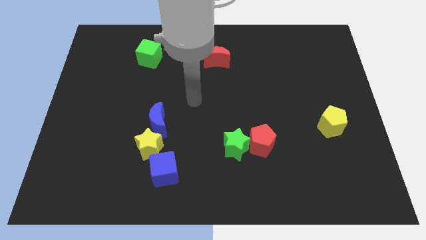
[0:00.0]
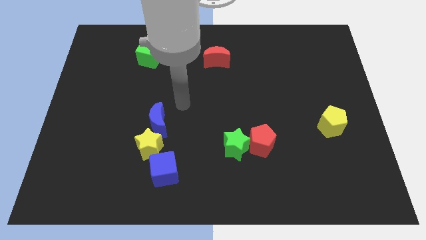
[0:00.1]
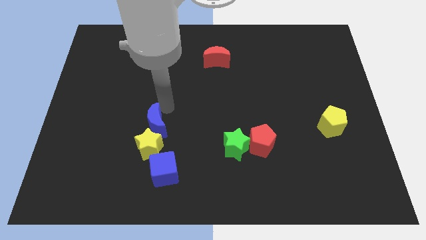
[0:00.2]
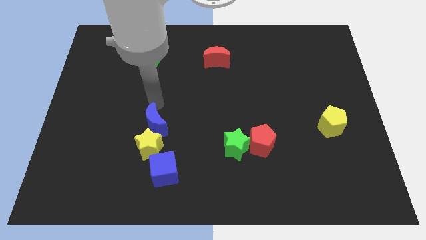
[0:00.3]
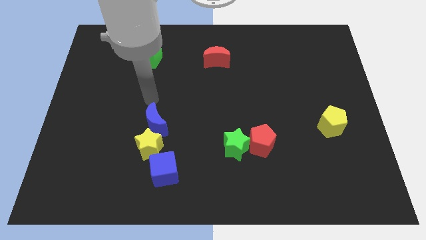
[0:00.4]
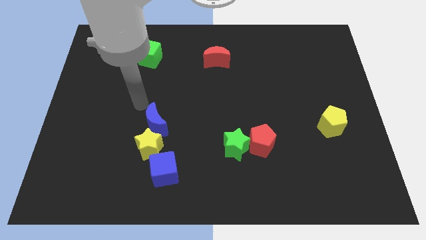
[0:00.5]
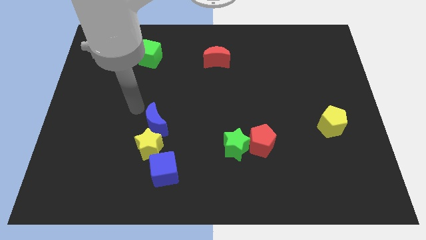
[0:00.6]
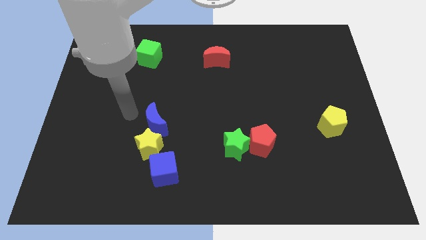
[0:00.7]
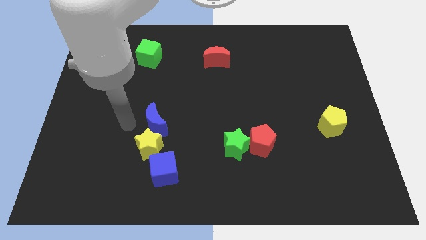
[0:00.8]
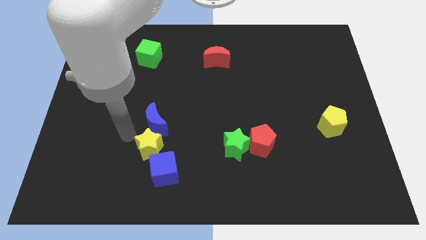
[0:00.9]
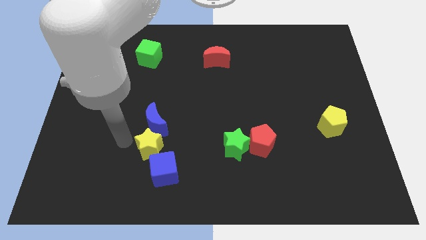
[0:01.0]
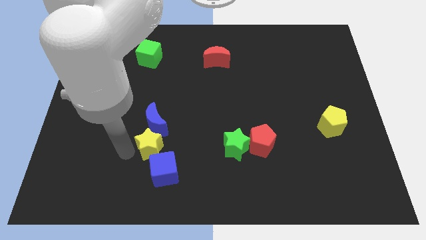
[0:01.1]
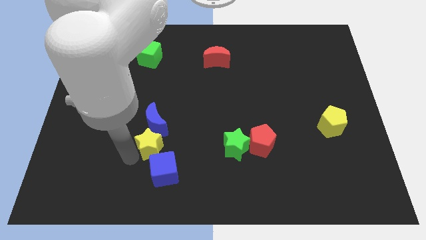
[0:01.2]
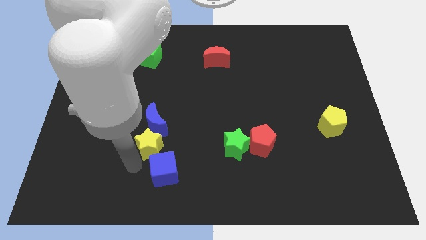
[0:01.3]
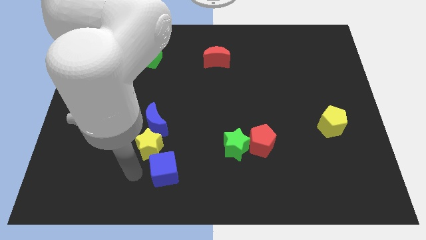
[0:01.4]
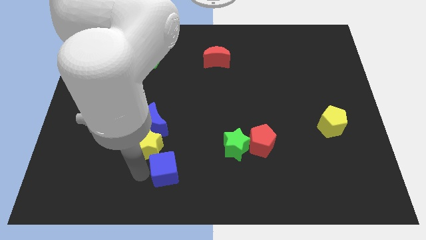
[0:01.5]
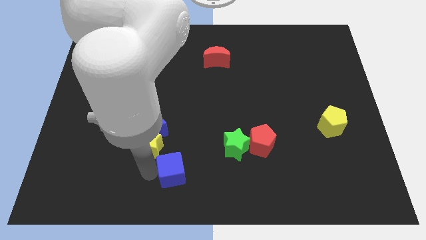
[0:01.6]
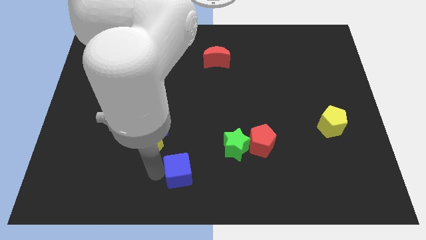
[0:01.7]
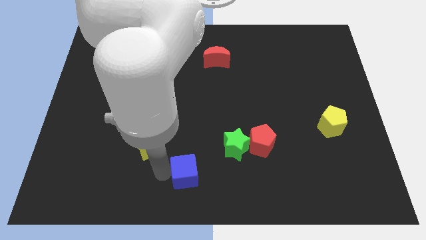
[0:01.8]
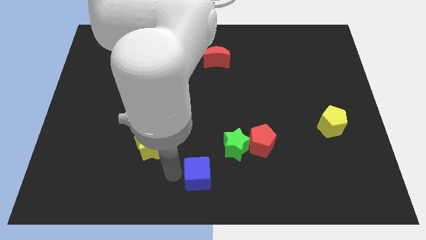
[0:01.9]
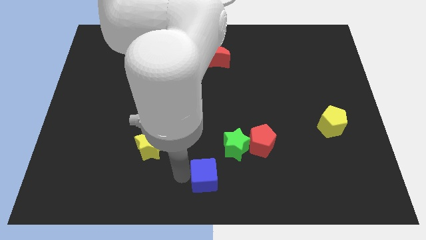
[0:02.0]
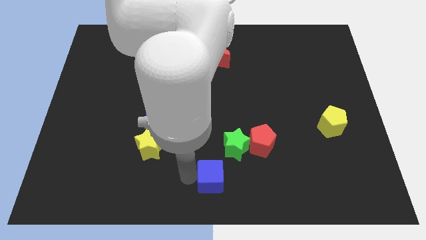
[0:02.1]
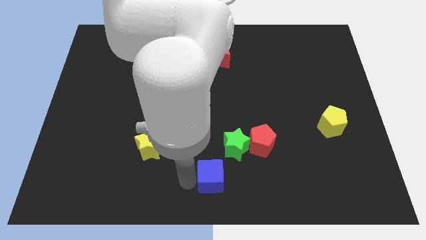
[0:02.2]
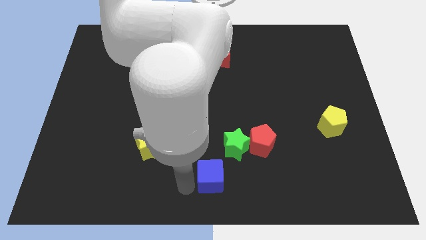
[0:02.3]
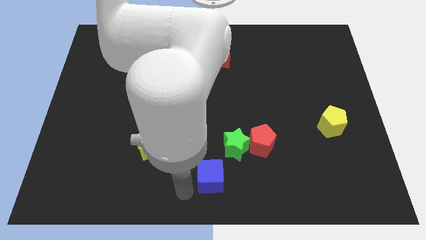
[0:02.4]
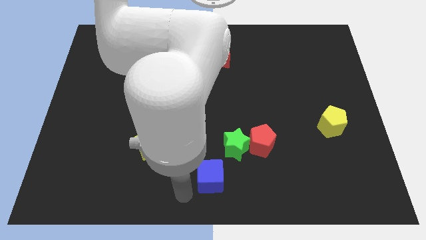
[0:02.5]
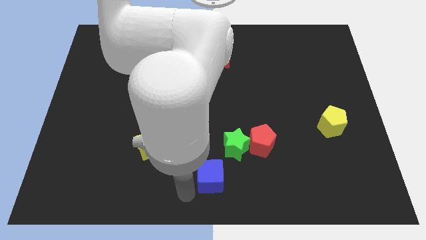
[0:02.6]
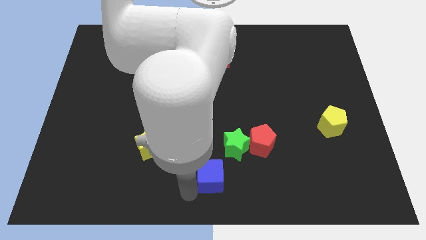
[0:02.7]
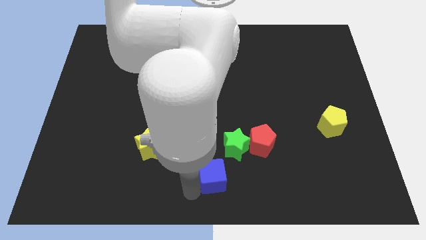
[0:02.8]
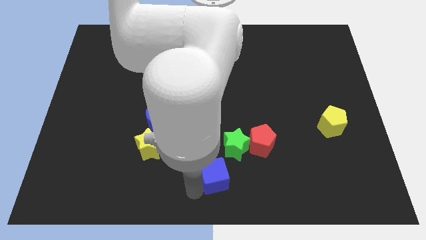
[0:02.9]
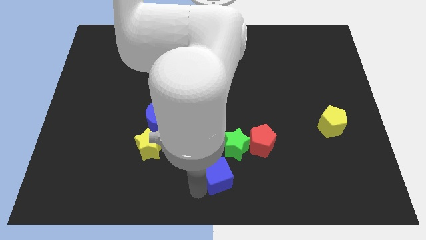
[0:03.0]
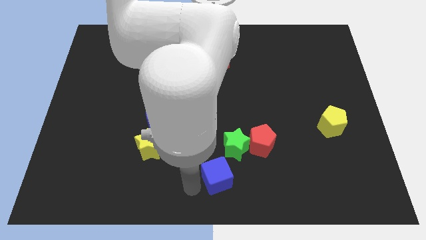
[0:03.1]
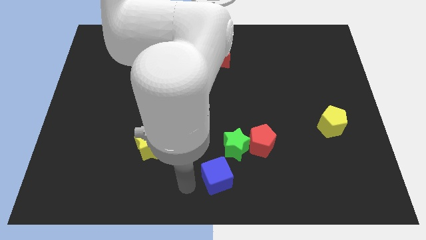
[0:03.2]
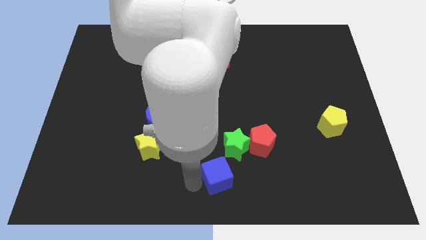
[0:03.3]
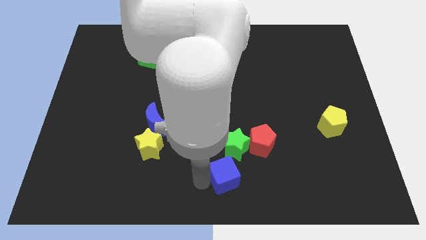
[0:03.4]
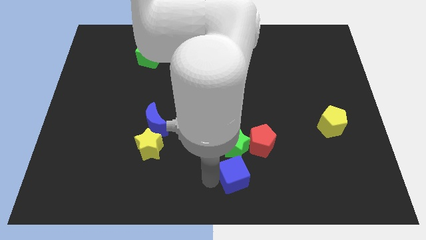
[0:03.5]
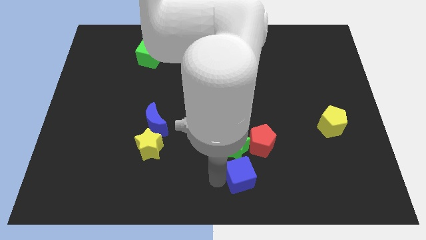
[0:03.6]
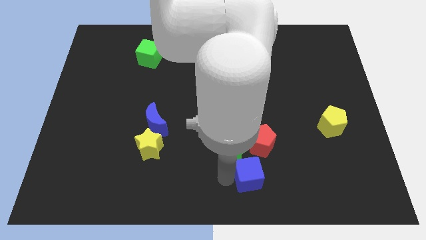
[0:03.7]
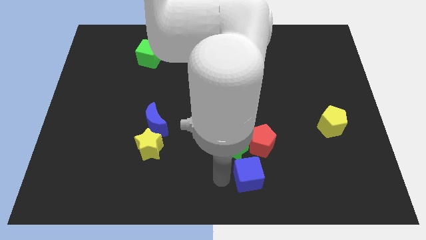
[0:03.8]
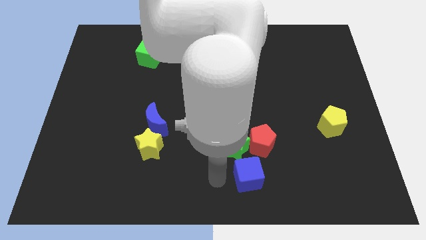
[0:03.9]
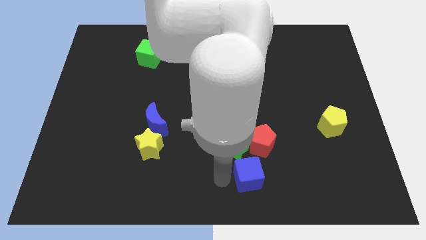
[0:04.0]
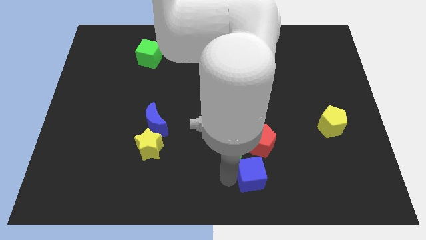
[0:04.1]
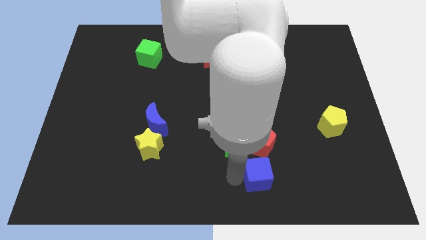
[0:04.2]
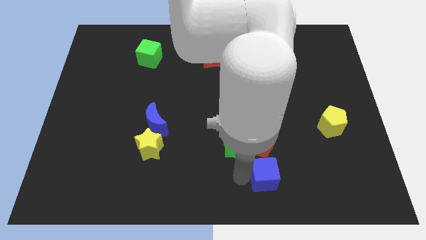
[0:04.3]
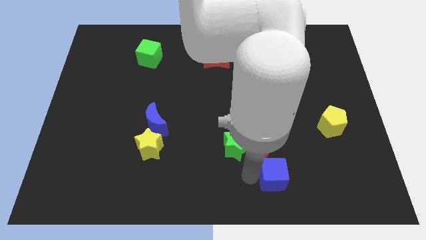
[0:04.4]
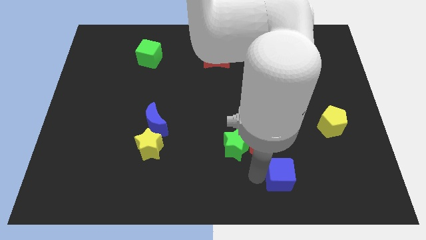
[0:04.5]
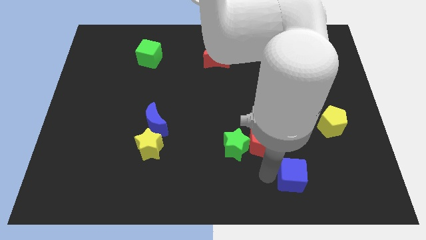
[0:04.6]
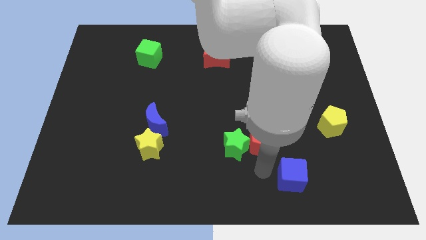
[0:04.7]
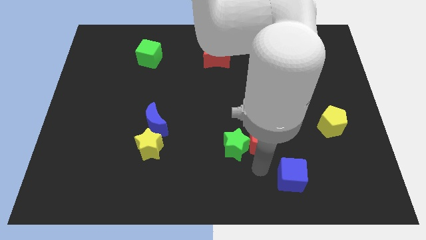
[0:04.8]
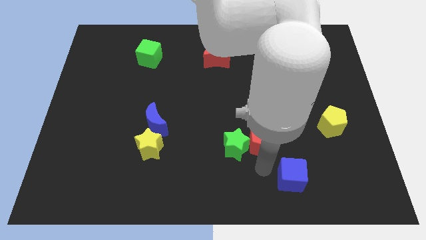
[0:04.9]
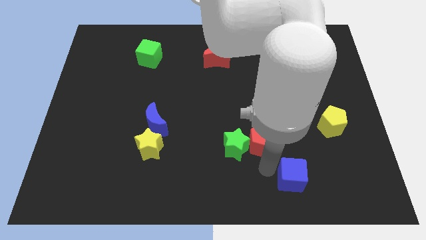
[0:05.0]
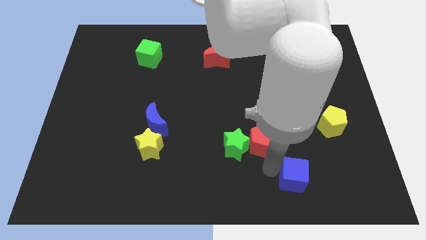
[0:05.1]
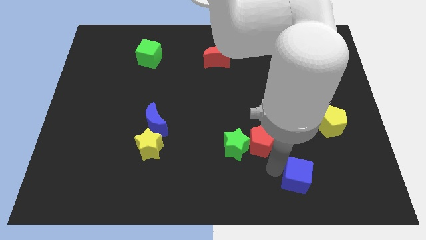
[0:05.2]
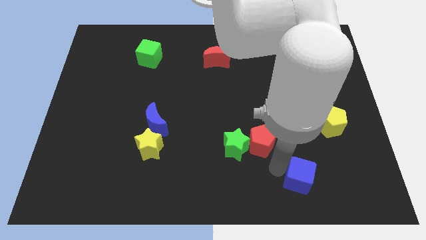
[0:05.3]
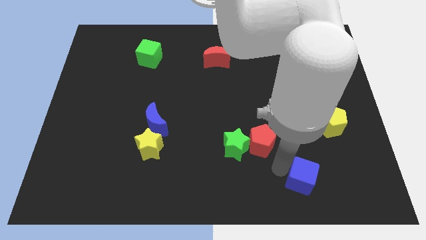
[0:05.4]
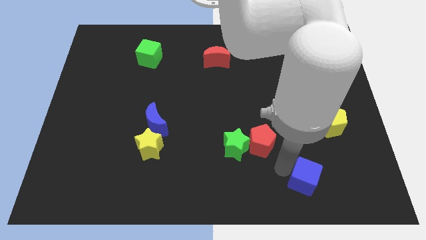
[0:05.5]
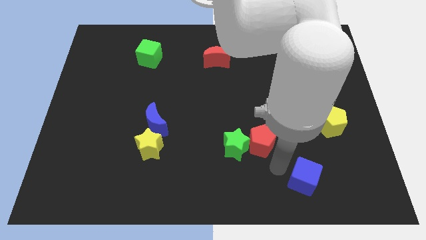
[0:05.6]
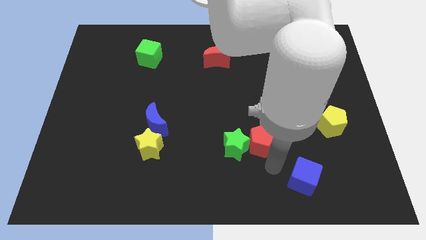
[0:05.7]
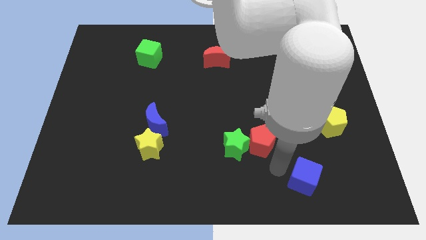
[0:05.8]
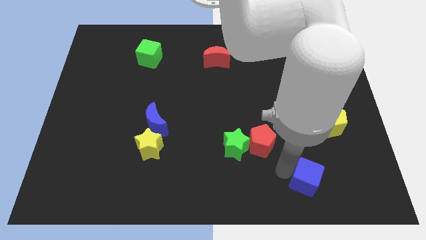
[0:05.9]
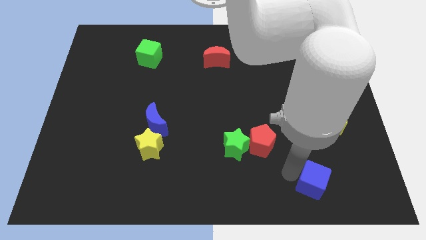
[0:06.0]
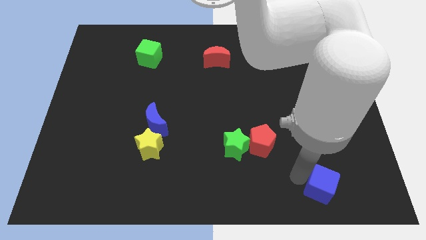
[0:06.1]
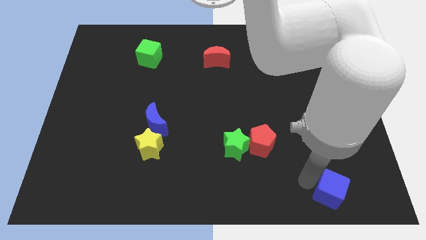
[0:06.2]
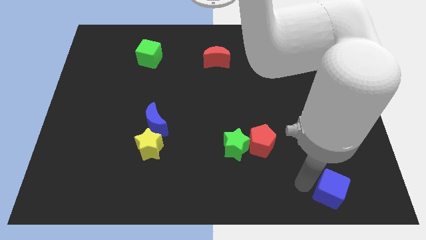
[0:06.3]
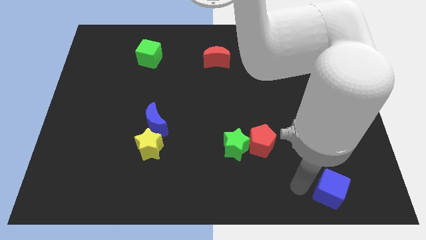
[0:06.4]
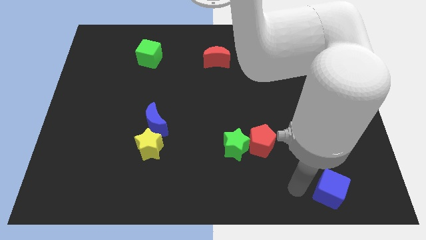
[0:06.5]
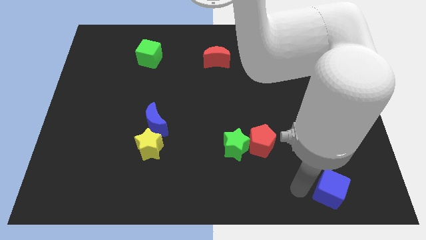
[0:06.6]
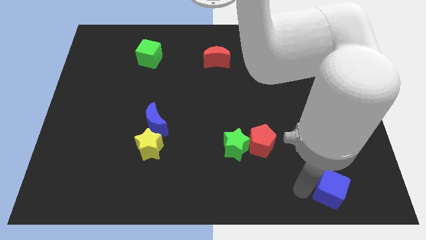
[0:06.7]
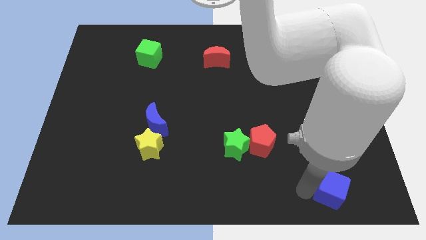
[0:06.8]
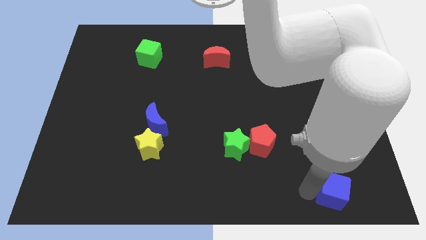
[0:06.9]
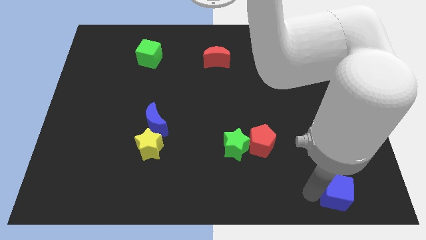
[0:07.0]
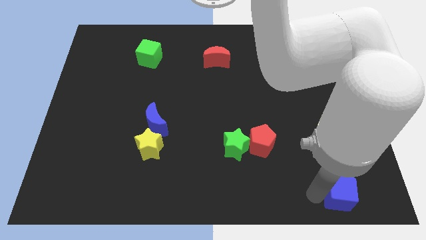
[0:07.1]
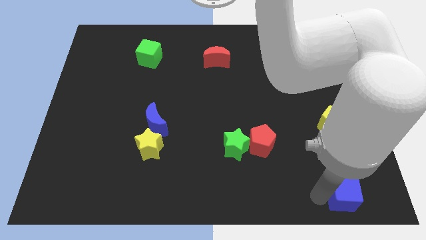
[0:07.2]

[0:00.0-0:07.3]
move the blue cube to the lower right corner
